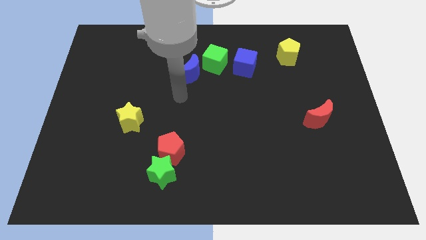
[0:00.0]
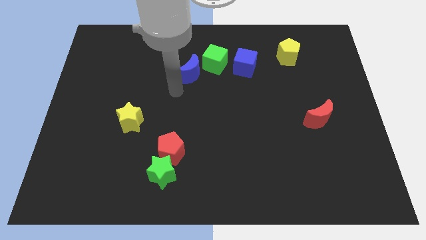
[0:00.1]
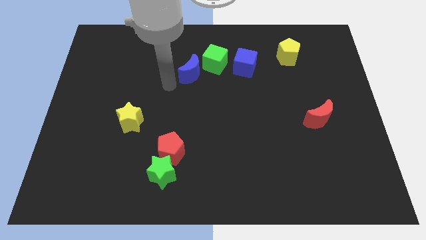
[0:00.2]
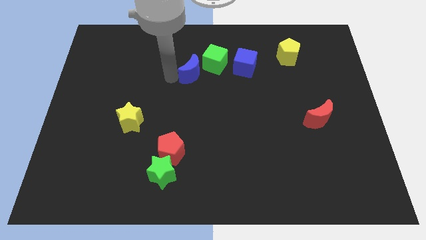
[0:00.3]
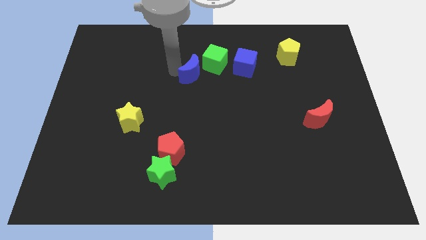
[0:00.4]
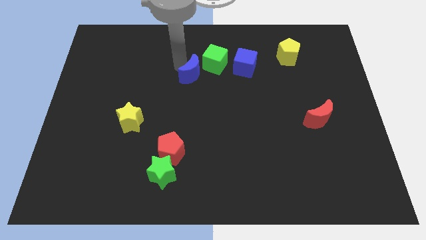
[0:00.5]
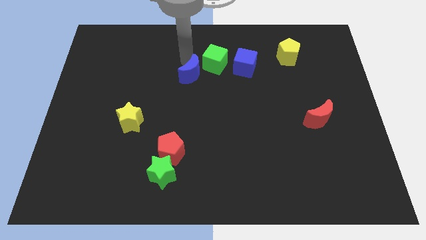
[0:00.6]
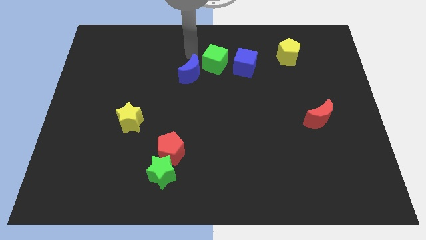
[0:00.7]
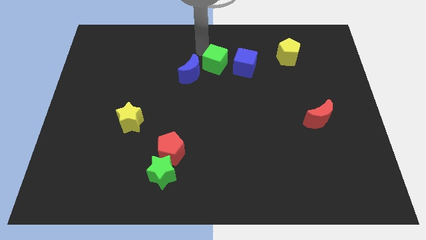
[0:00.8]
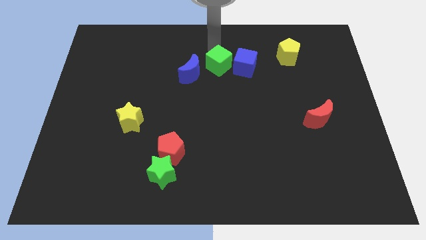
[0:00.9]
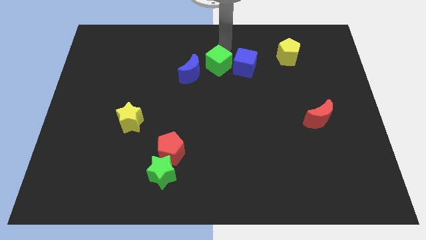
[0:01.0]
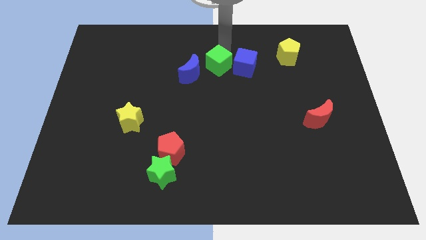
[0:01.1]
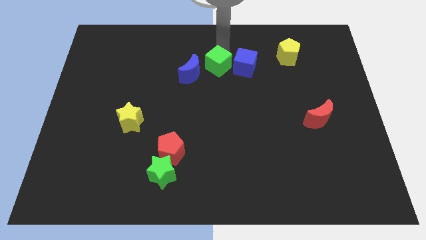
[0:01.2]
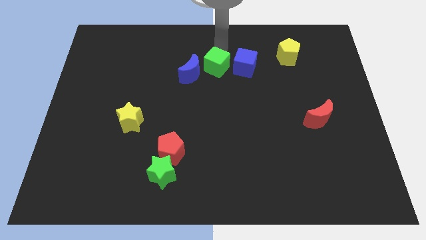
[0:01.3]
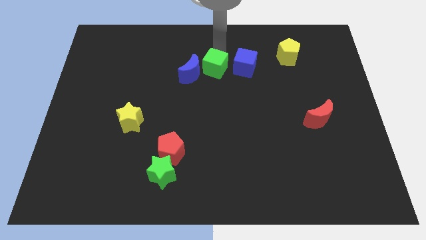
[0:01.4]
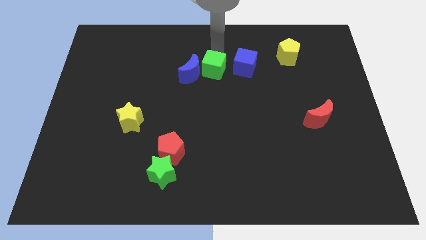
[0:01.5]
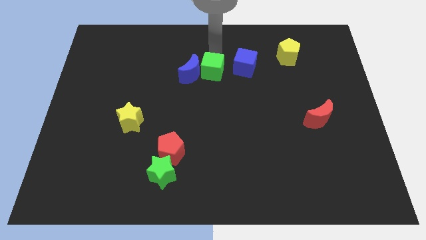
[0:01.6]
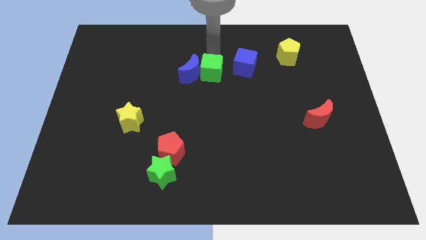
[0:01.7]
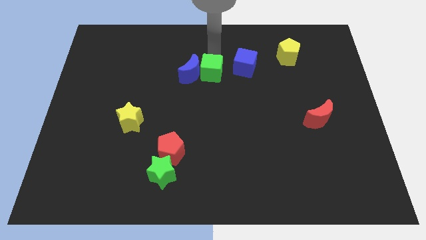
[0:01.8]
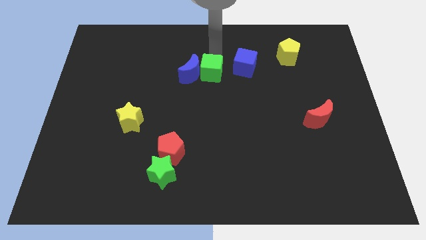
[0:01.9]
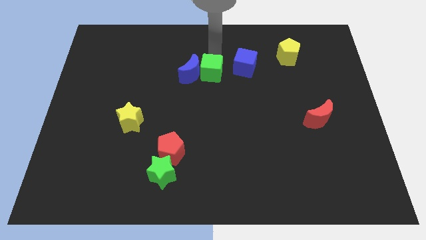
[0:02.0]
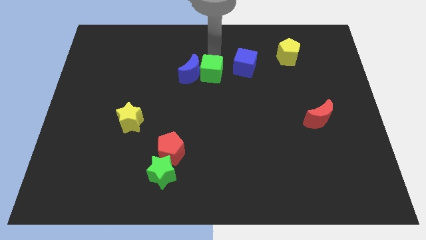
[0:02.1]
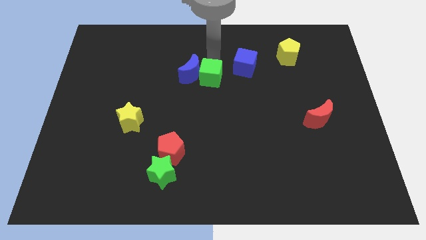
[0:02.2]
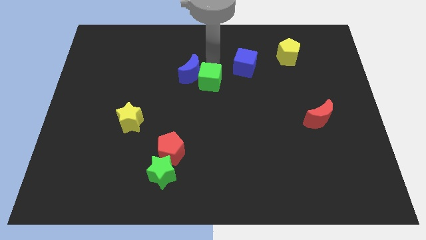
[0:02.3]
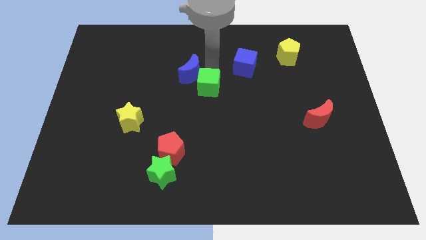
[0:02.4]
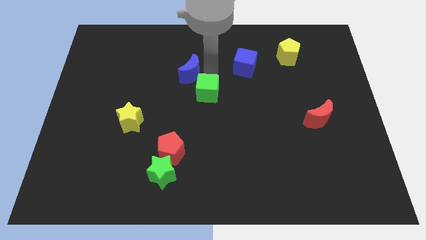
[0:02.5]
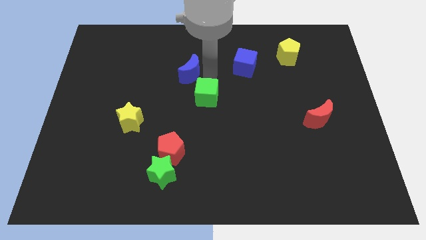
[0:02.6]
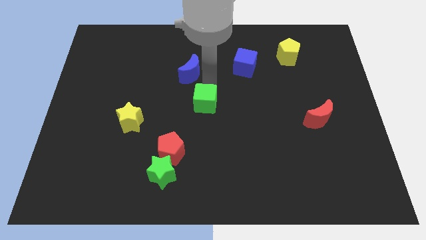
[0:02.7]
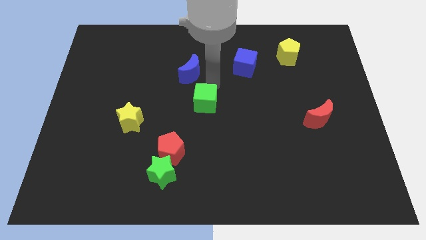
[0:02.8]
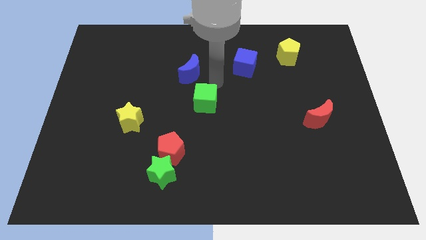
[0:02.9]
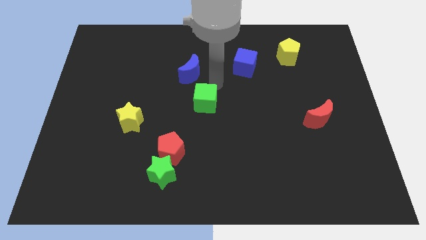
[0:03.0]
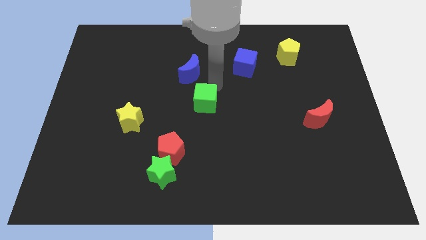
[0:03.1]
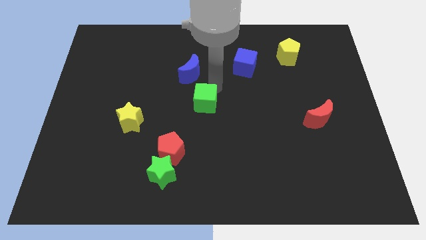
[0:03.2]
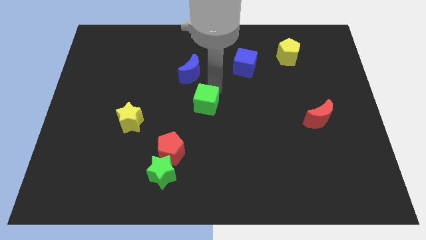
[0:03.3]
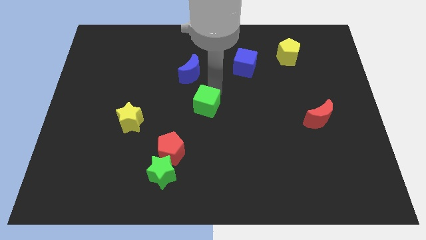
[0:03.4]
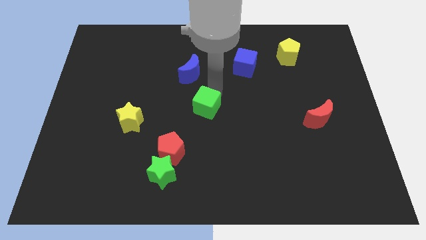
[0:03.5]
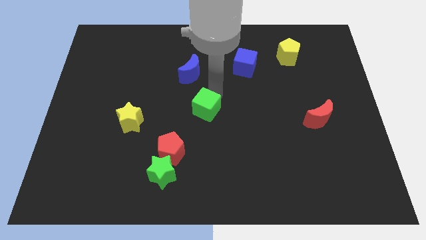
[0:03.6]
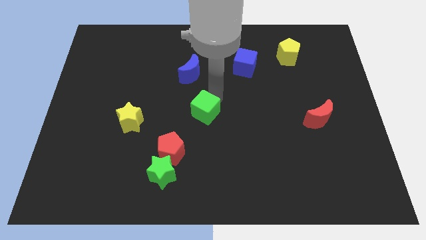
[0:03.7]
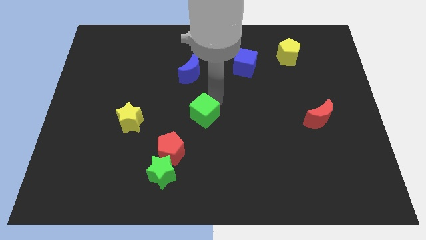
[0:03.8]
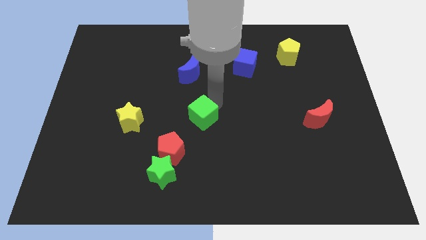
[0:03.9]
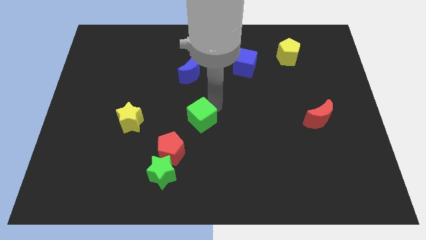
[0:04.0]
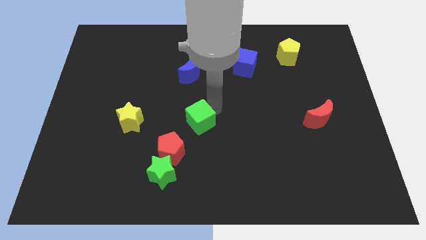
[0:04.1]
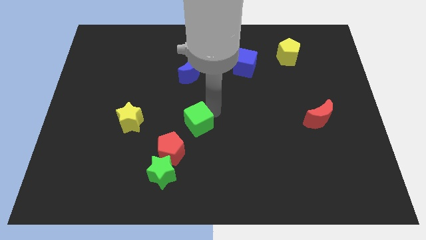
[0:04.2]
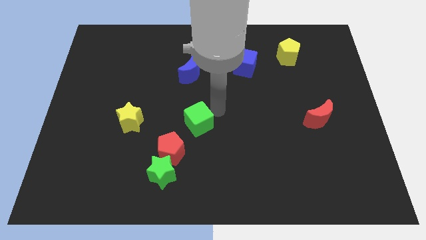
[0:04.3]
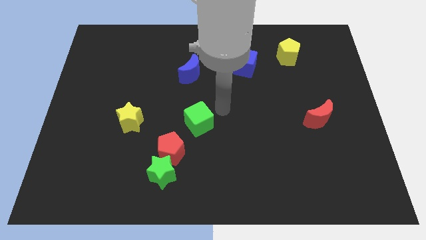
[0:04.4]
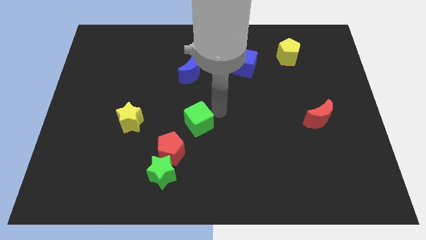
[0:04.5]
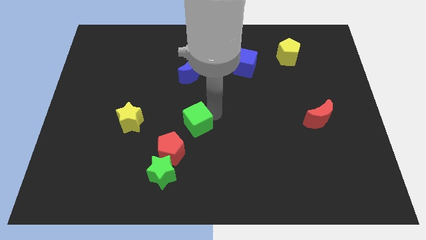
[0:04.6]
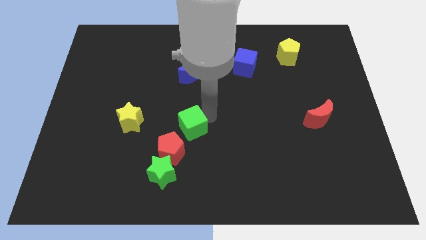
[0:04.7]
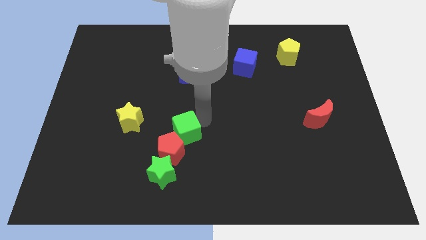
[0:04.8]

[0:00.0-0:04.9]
push the green cube to the top side of the green star

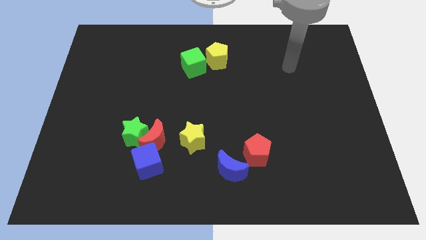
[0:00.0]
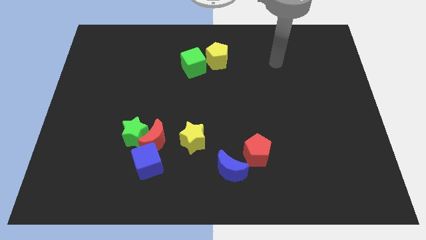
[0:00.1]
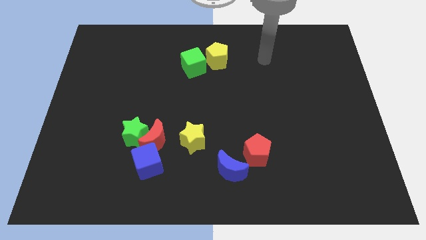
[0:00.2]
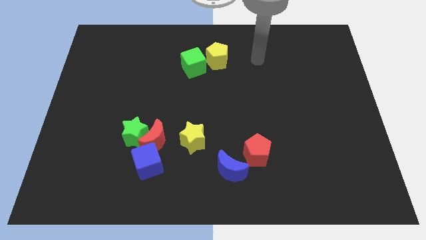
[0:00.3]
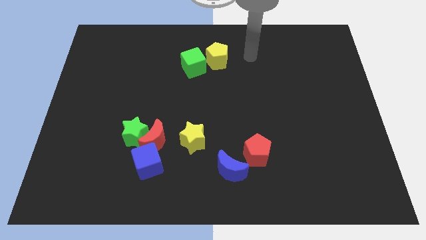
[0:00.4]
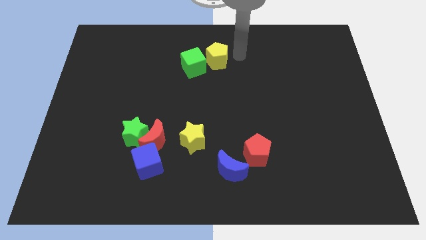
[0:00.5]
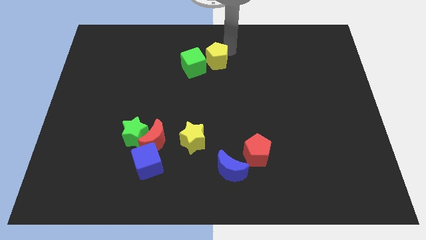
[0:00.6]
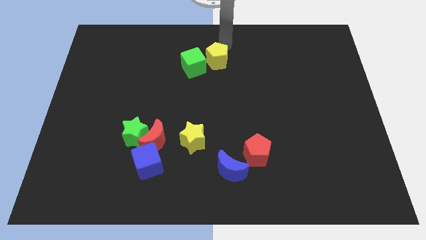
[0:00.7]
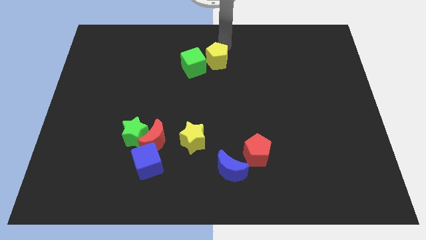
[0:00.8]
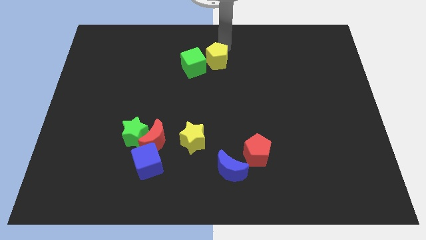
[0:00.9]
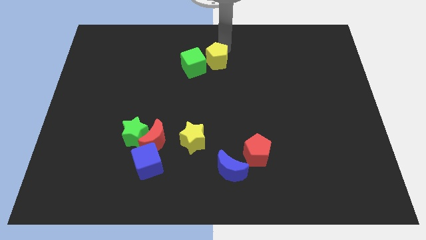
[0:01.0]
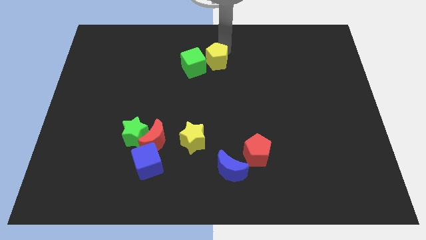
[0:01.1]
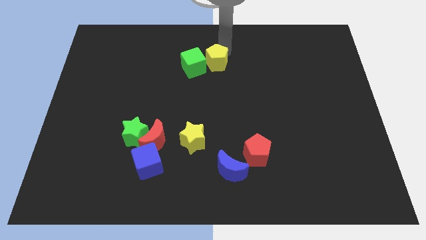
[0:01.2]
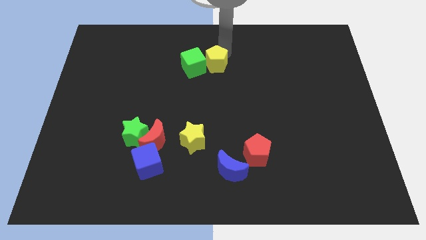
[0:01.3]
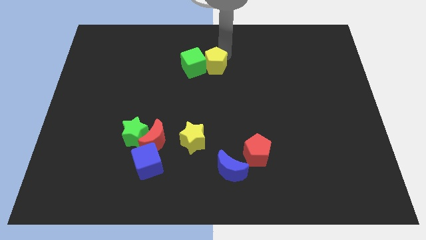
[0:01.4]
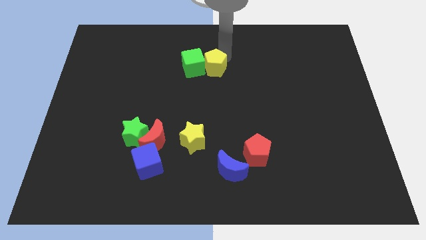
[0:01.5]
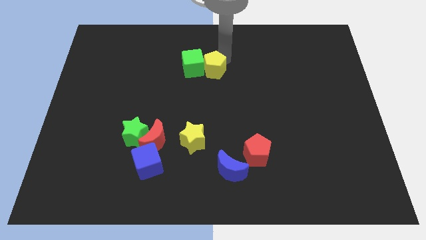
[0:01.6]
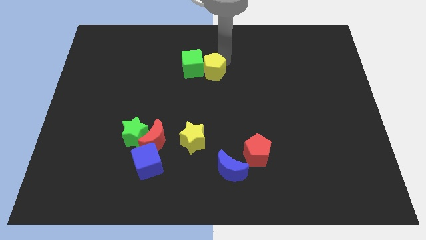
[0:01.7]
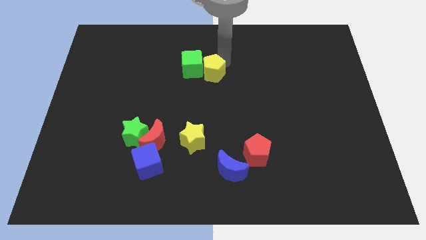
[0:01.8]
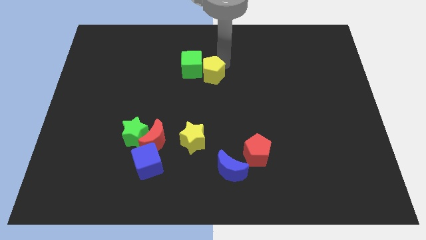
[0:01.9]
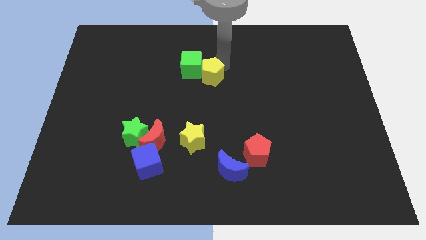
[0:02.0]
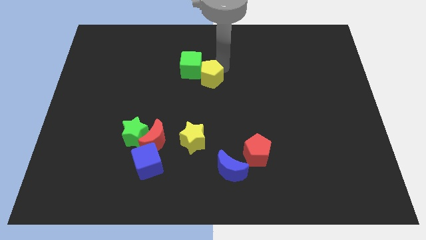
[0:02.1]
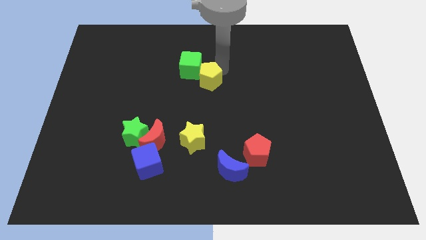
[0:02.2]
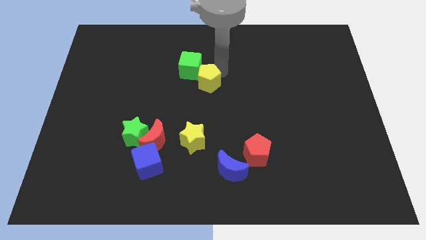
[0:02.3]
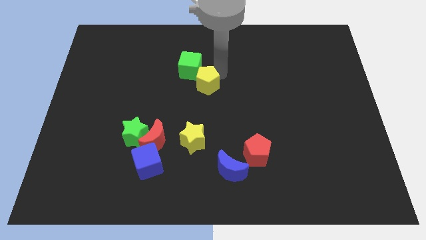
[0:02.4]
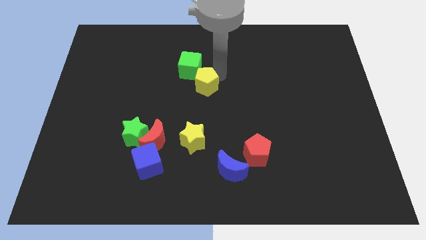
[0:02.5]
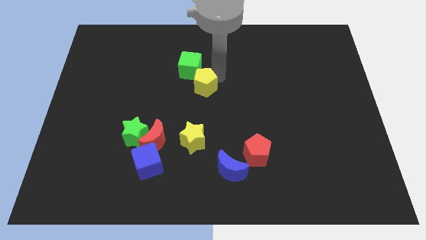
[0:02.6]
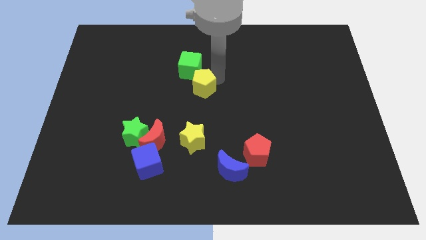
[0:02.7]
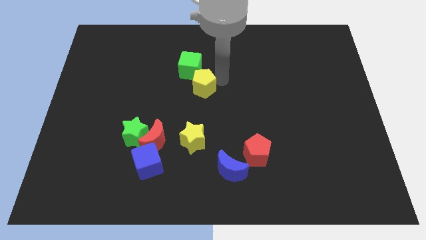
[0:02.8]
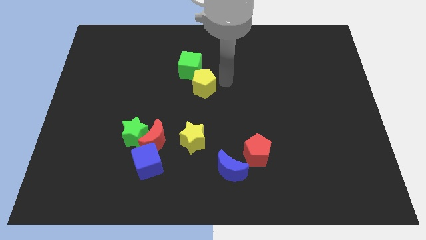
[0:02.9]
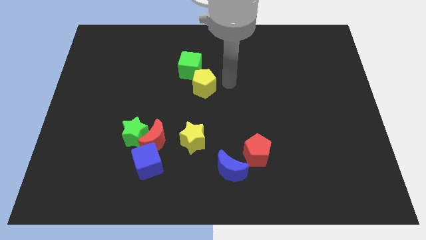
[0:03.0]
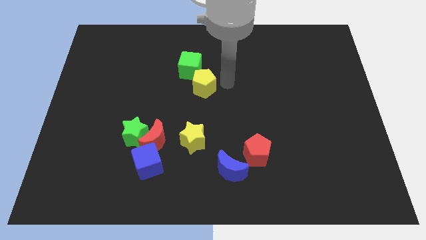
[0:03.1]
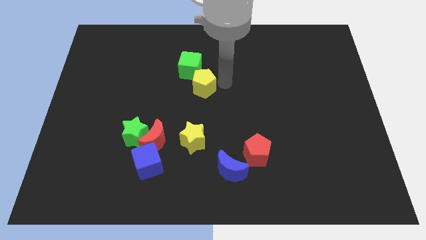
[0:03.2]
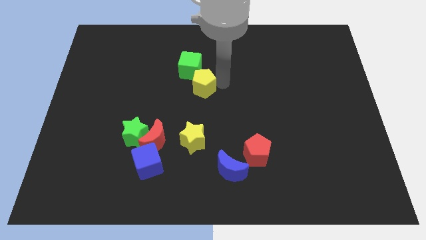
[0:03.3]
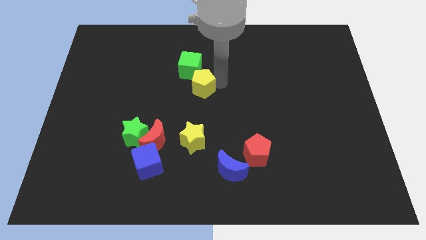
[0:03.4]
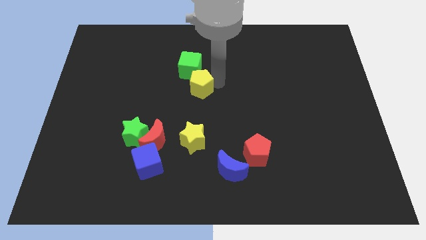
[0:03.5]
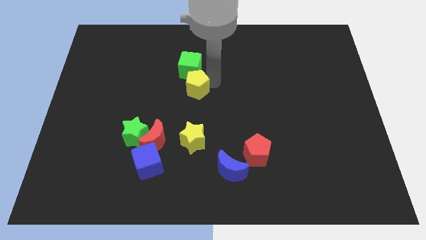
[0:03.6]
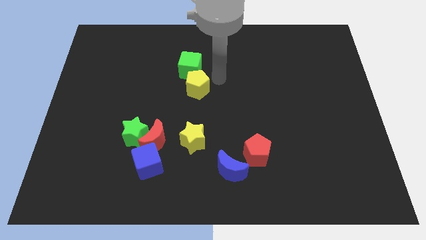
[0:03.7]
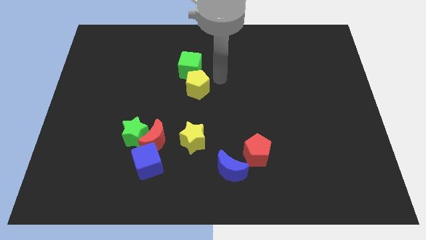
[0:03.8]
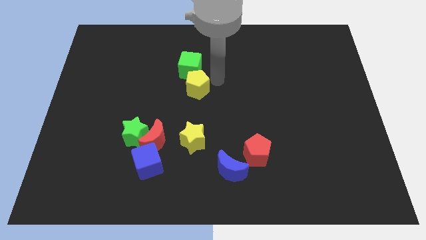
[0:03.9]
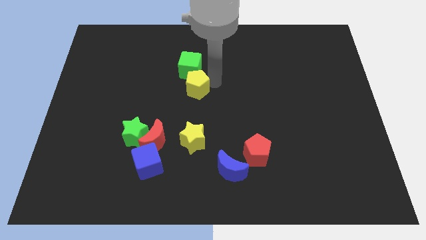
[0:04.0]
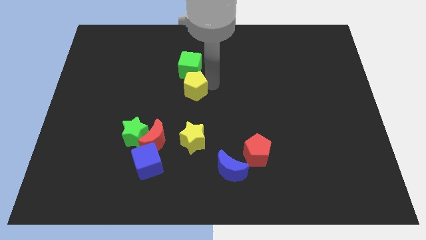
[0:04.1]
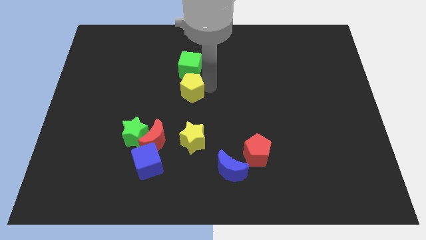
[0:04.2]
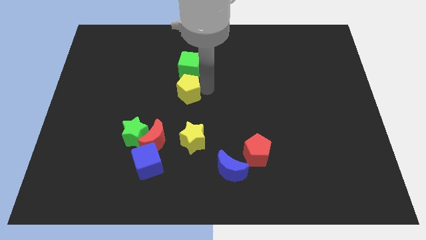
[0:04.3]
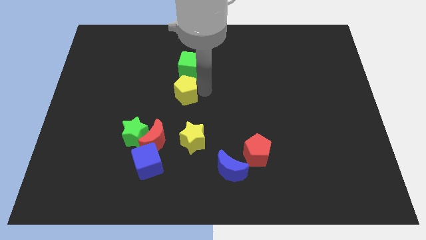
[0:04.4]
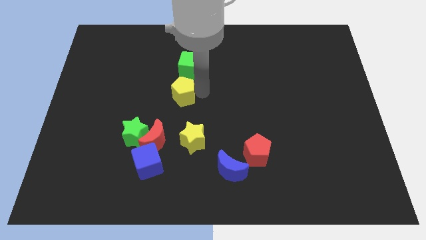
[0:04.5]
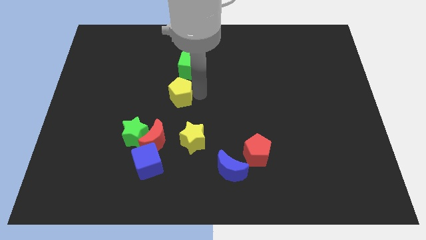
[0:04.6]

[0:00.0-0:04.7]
put the yellow pentagon to the top of the red moon
